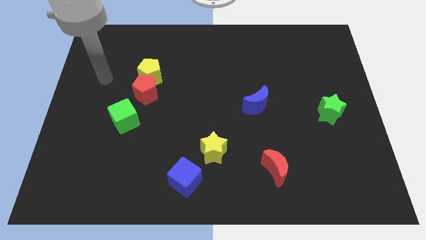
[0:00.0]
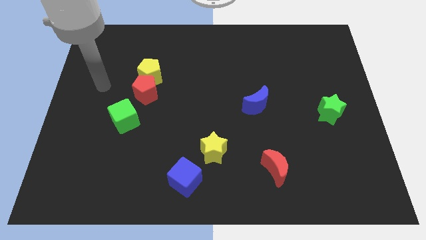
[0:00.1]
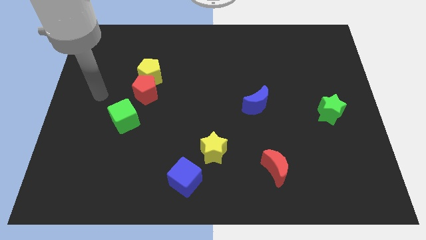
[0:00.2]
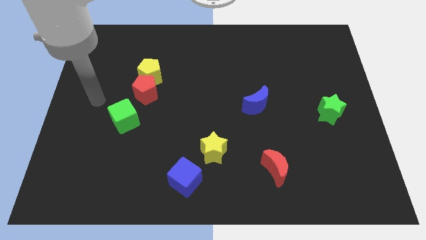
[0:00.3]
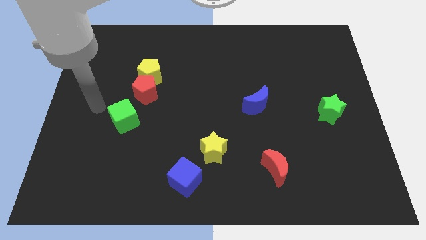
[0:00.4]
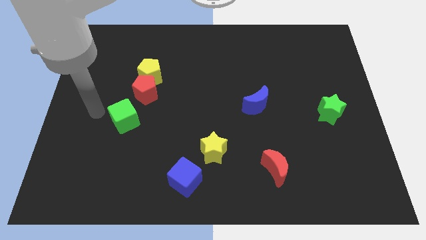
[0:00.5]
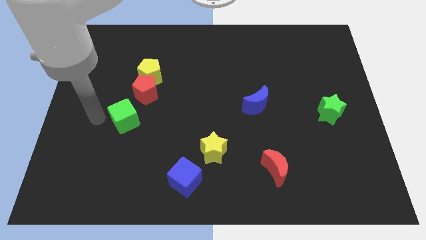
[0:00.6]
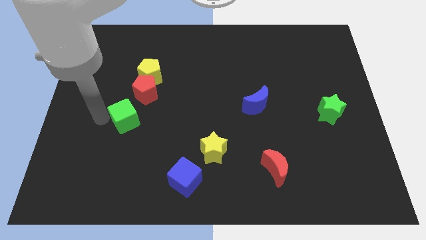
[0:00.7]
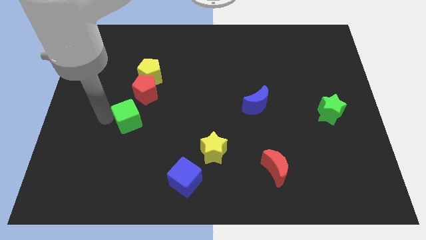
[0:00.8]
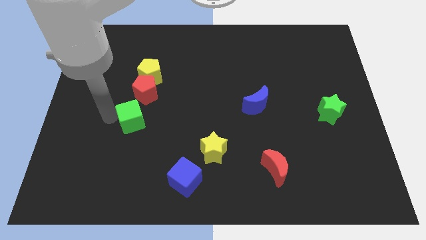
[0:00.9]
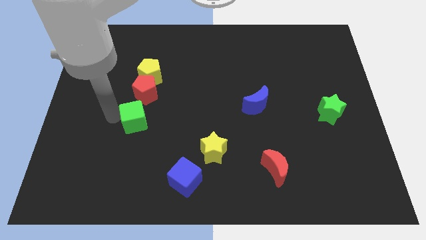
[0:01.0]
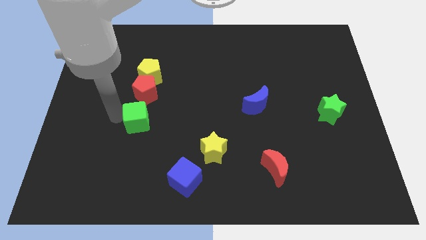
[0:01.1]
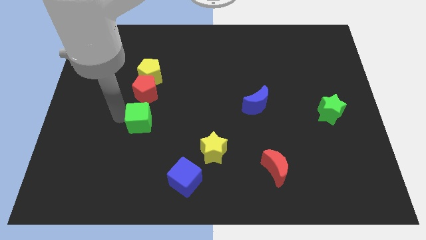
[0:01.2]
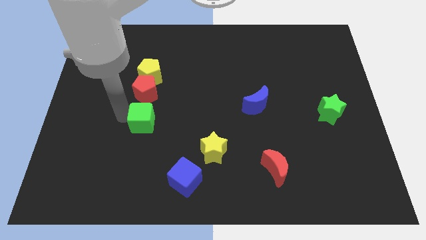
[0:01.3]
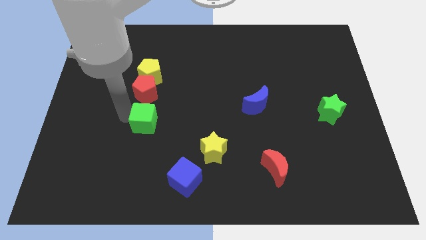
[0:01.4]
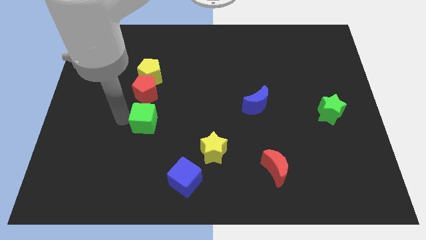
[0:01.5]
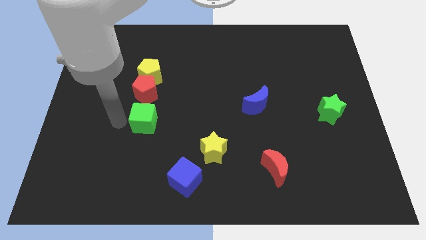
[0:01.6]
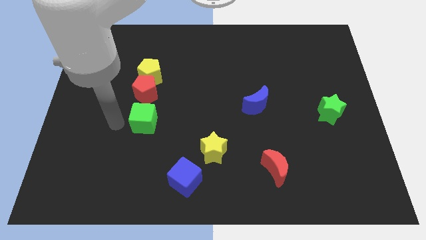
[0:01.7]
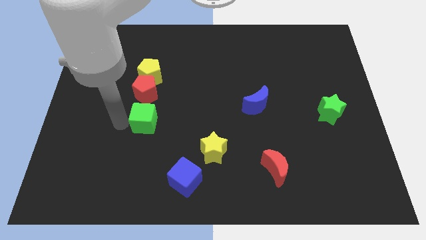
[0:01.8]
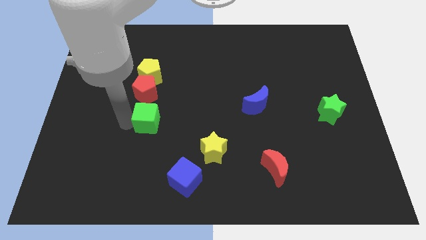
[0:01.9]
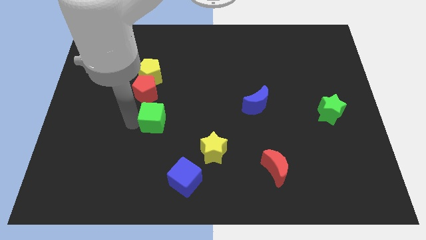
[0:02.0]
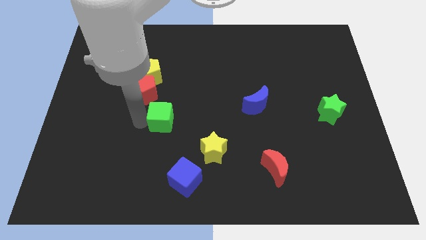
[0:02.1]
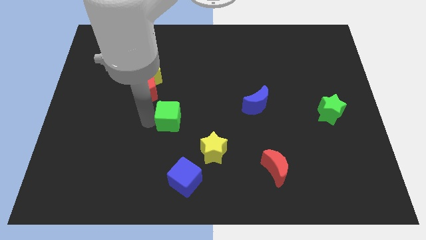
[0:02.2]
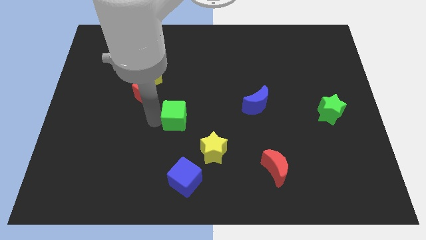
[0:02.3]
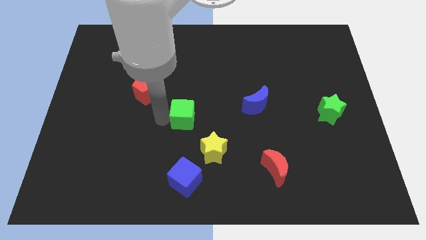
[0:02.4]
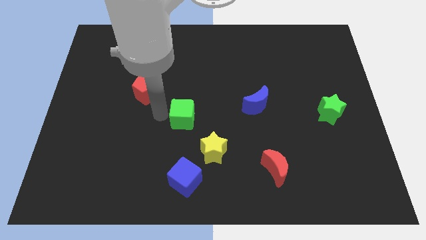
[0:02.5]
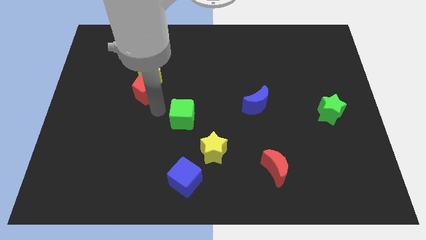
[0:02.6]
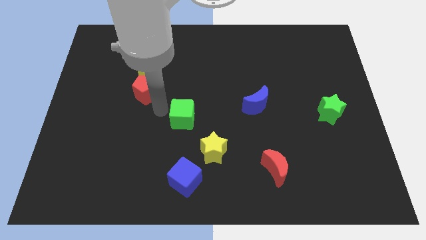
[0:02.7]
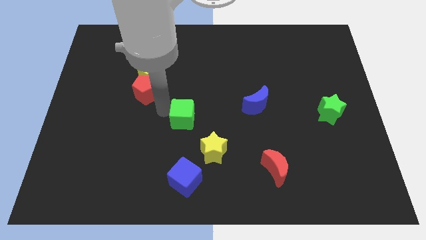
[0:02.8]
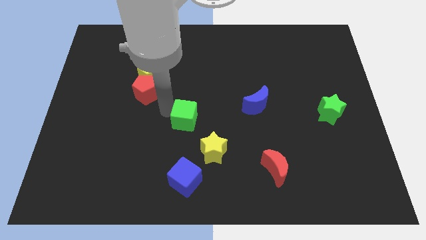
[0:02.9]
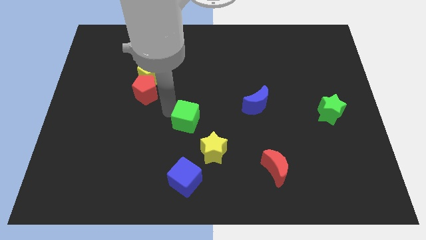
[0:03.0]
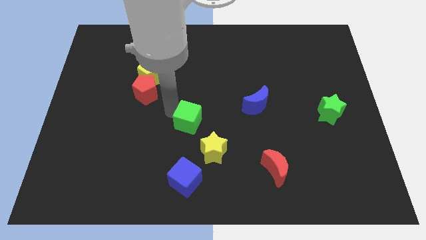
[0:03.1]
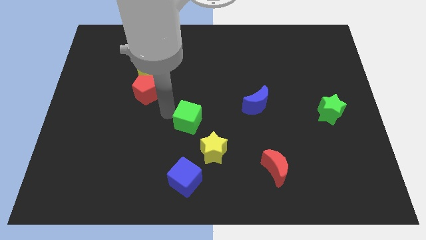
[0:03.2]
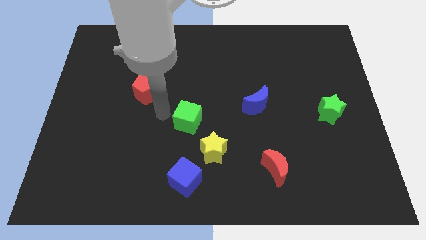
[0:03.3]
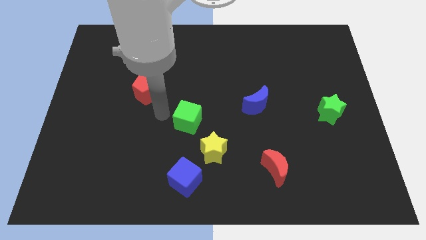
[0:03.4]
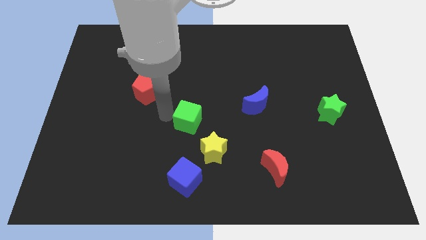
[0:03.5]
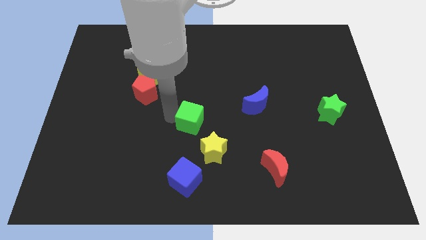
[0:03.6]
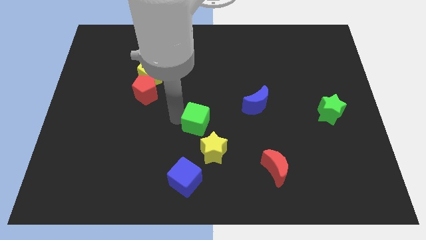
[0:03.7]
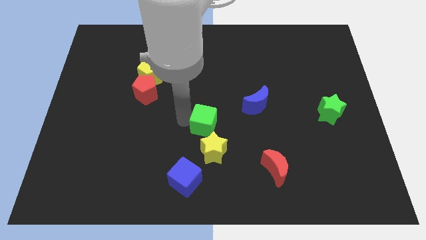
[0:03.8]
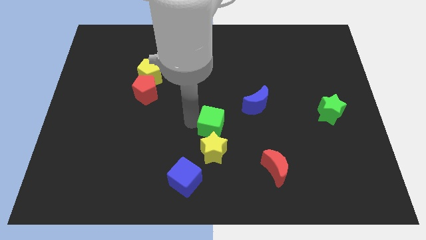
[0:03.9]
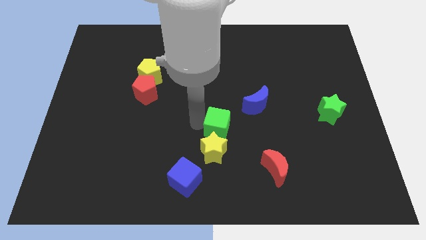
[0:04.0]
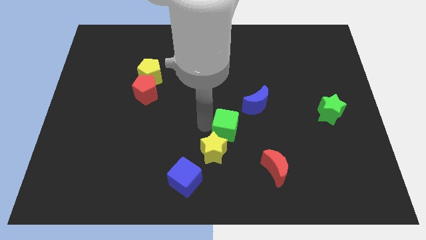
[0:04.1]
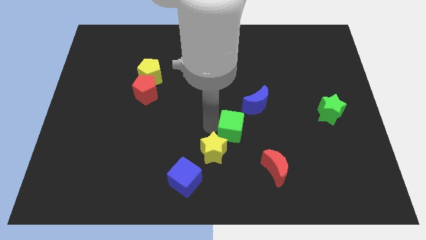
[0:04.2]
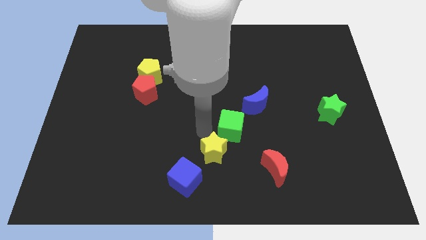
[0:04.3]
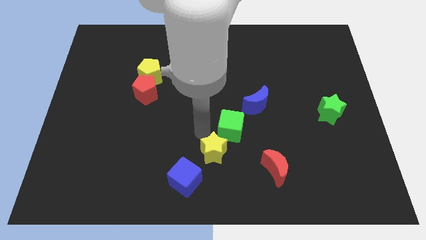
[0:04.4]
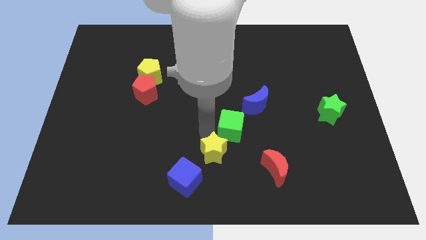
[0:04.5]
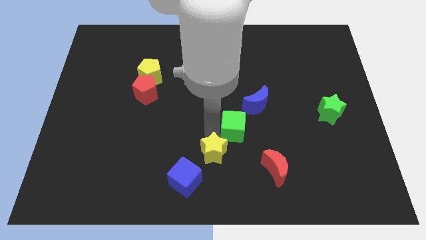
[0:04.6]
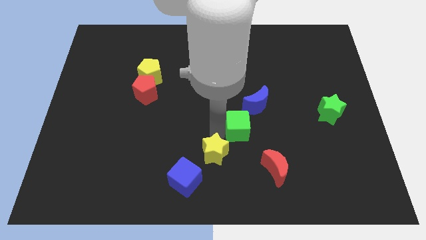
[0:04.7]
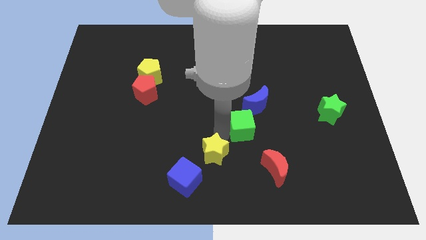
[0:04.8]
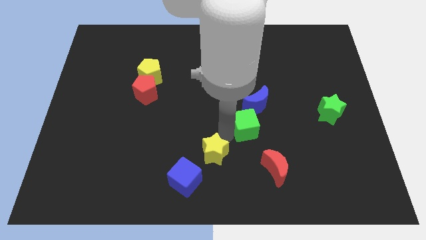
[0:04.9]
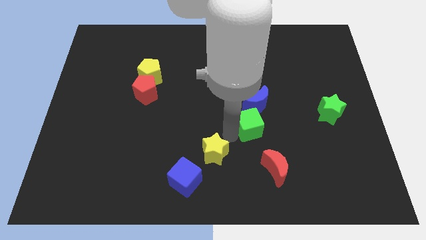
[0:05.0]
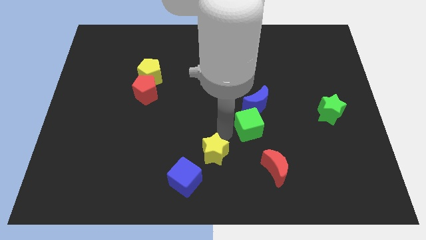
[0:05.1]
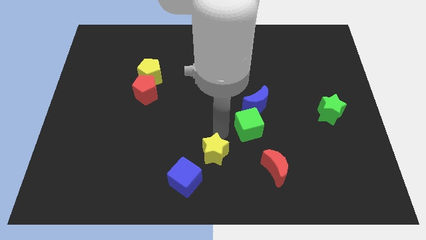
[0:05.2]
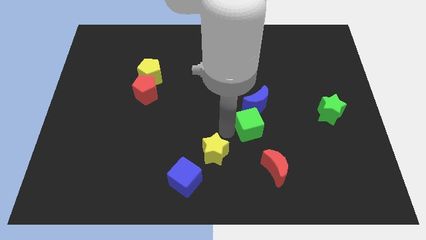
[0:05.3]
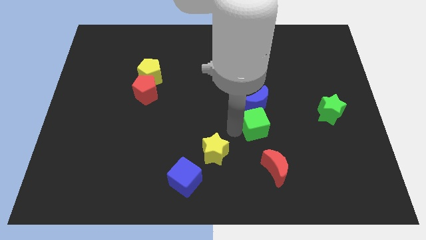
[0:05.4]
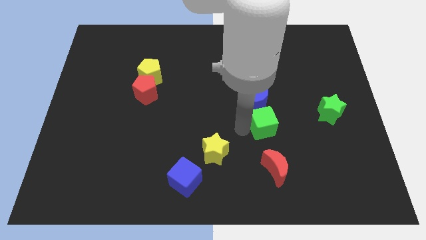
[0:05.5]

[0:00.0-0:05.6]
slide the green cube to the bottom right of the blue moon

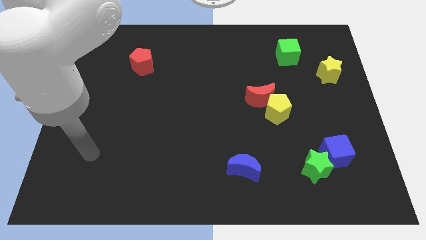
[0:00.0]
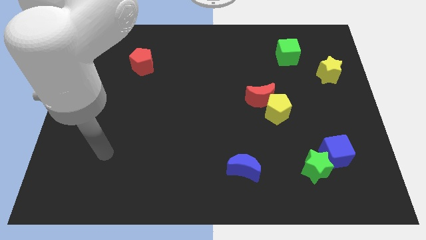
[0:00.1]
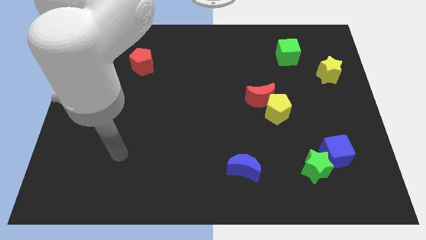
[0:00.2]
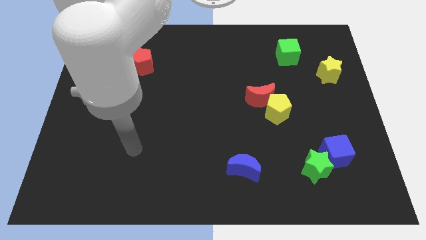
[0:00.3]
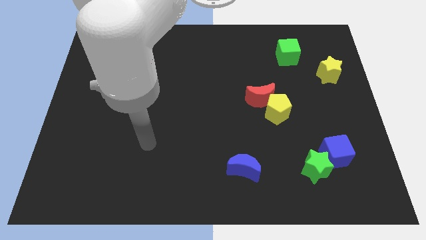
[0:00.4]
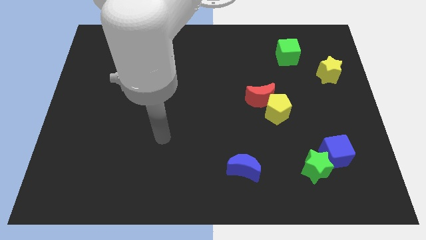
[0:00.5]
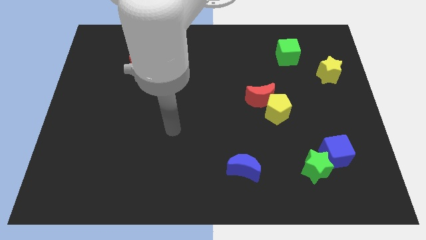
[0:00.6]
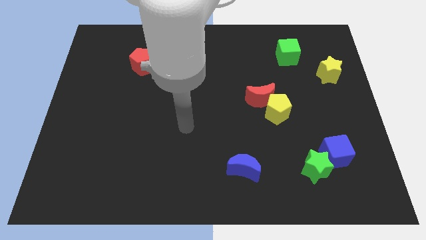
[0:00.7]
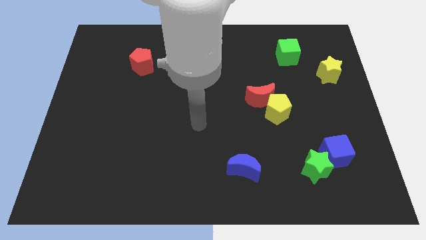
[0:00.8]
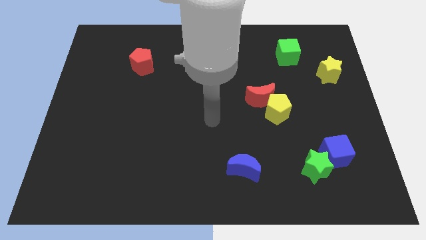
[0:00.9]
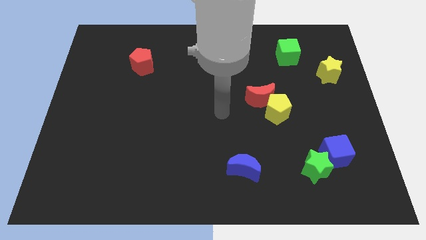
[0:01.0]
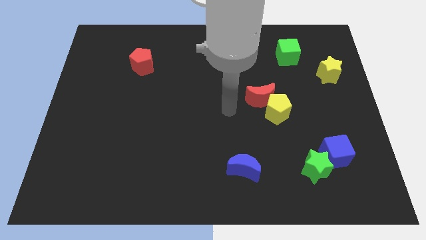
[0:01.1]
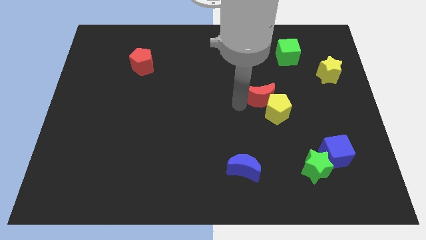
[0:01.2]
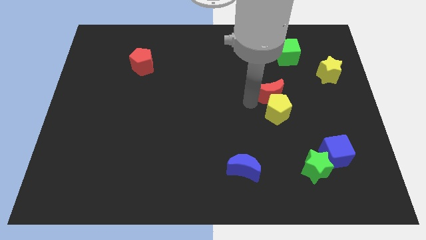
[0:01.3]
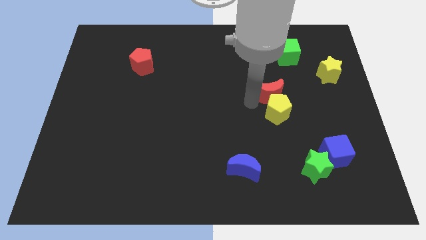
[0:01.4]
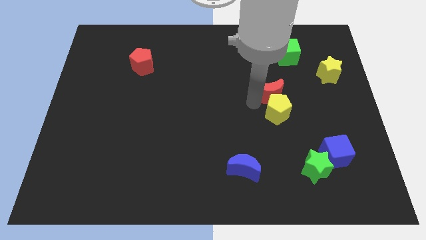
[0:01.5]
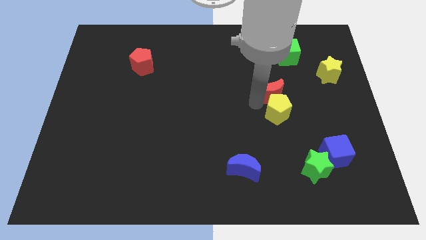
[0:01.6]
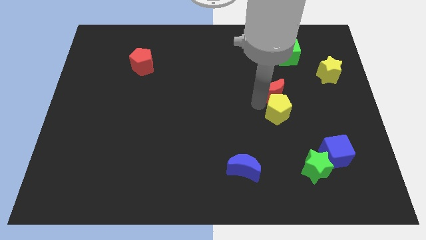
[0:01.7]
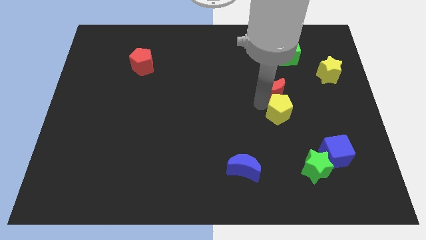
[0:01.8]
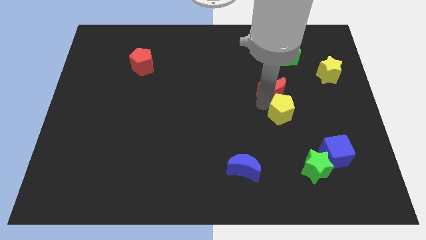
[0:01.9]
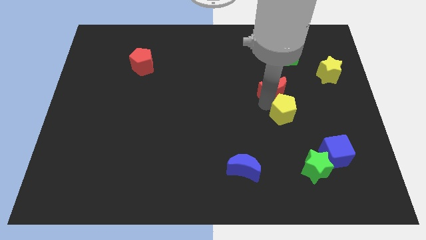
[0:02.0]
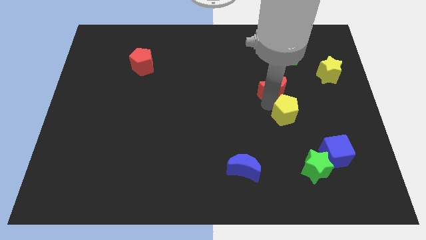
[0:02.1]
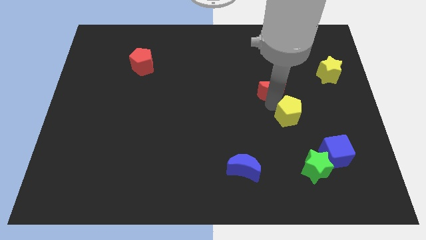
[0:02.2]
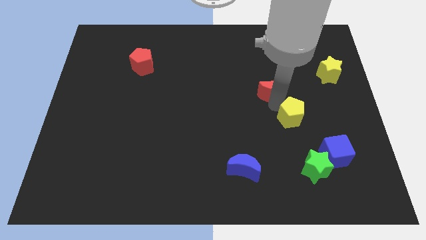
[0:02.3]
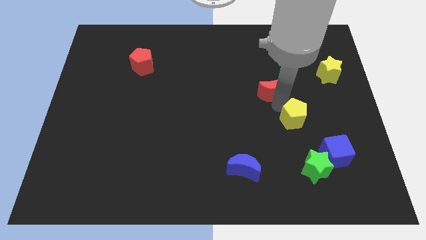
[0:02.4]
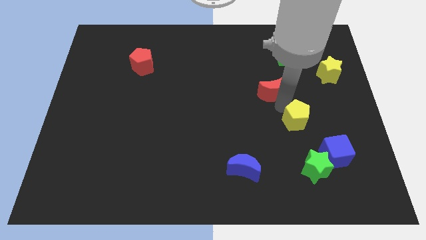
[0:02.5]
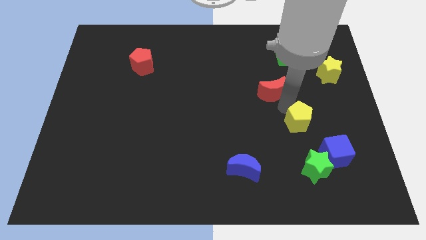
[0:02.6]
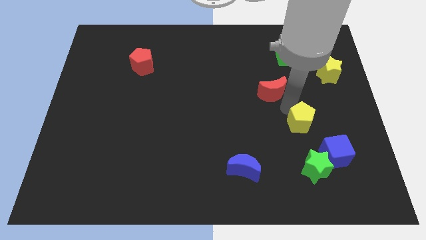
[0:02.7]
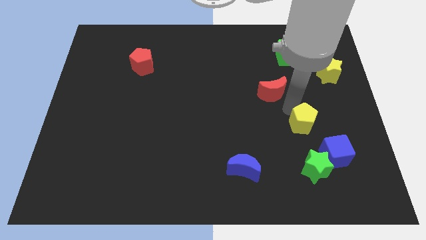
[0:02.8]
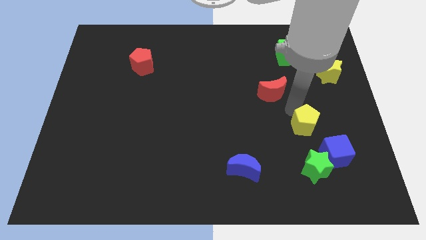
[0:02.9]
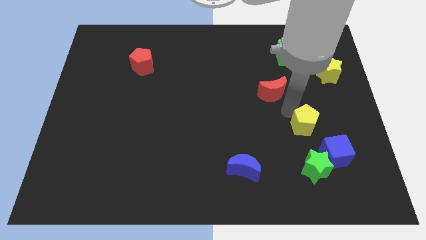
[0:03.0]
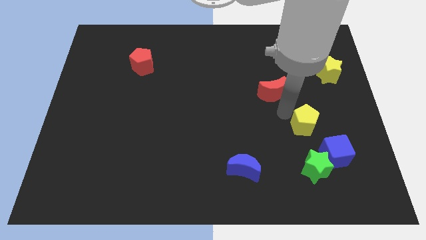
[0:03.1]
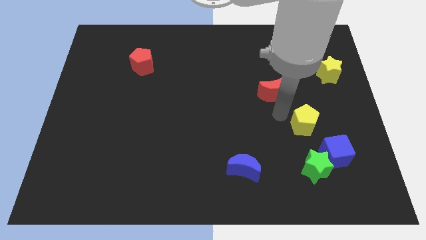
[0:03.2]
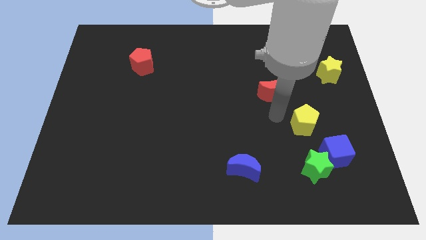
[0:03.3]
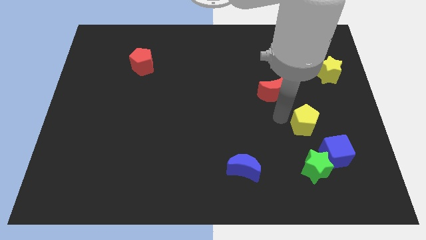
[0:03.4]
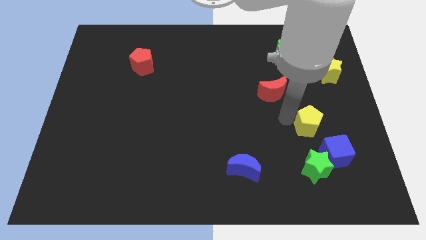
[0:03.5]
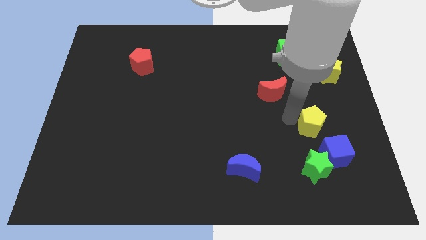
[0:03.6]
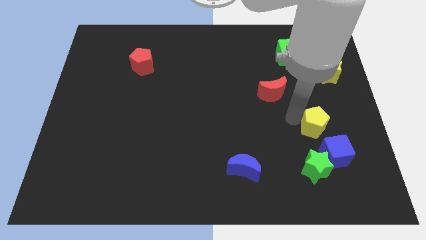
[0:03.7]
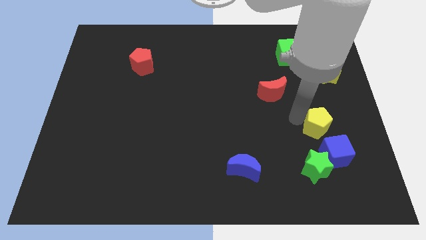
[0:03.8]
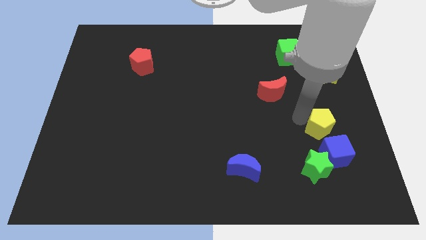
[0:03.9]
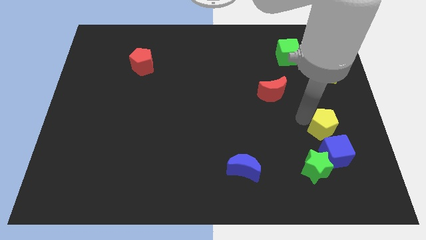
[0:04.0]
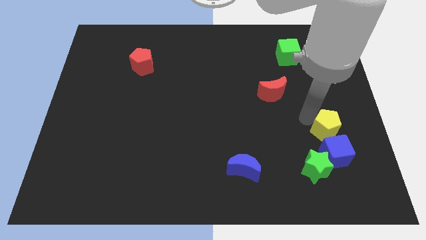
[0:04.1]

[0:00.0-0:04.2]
slide the yellow pentagon diagonally up and to the right of the green star
